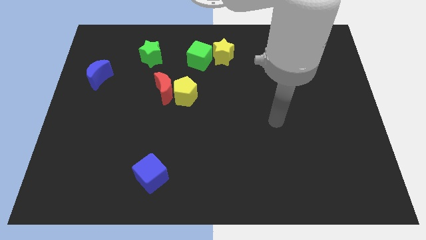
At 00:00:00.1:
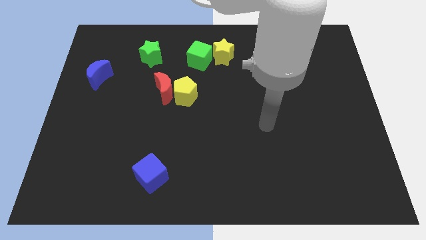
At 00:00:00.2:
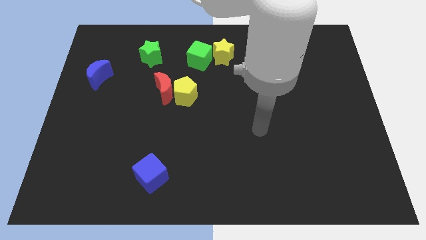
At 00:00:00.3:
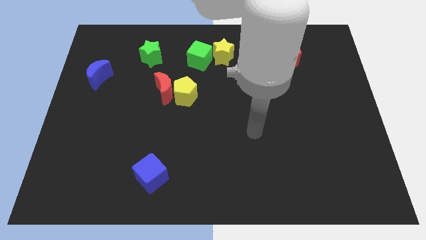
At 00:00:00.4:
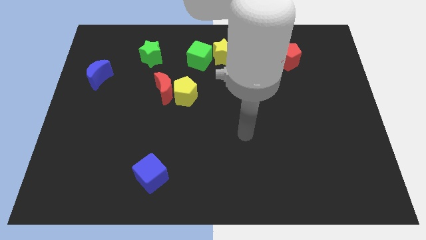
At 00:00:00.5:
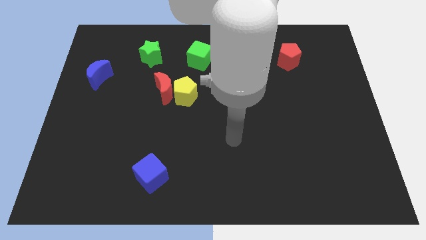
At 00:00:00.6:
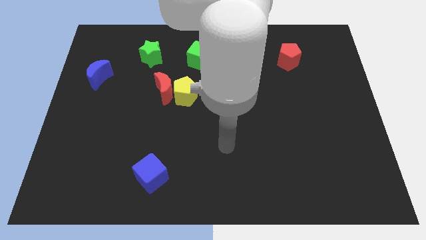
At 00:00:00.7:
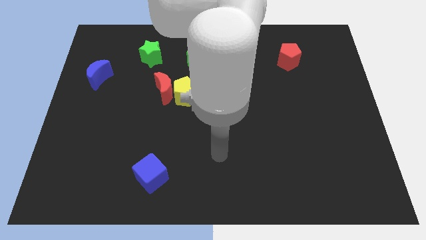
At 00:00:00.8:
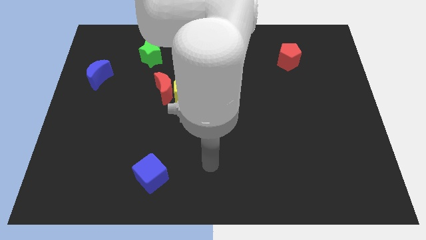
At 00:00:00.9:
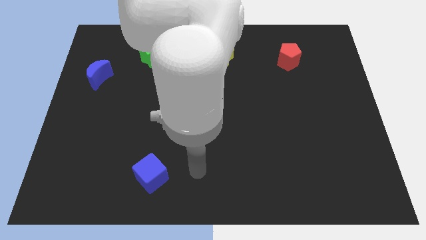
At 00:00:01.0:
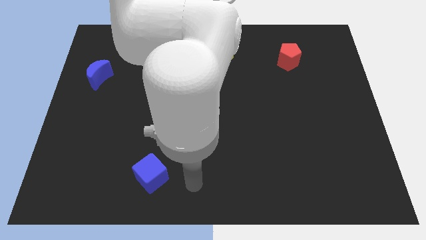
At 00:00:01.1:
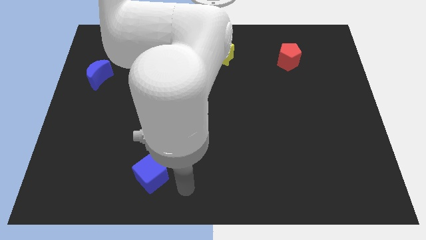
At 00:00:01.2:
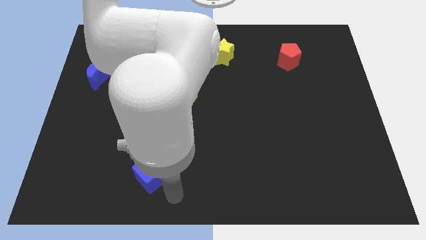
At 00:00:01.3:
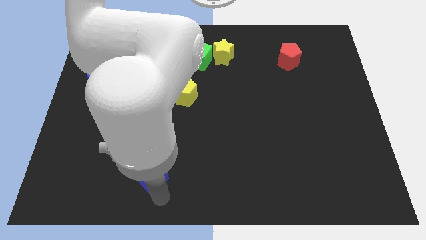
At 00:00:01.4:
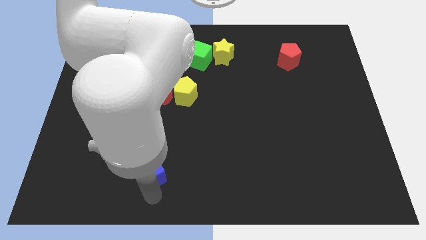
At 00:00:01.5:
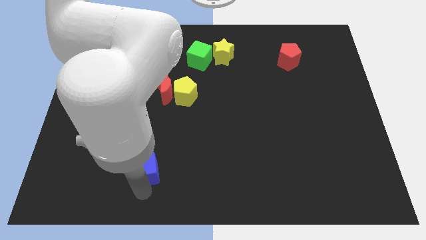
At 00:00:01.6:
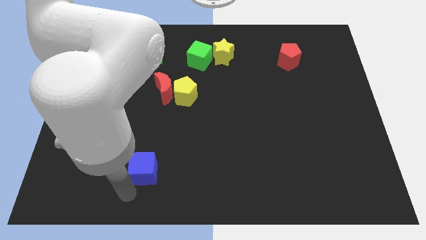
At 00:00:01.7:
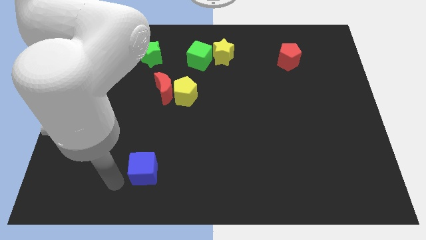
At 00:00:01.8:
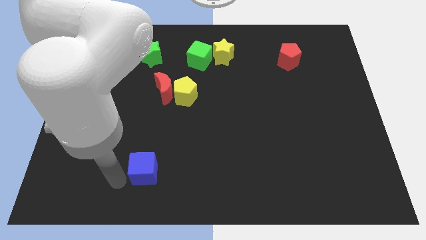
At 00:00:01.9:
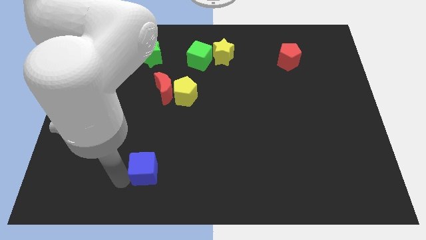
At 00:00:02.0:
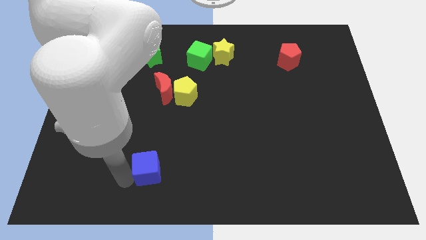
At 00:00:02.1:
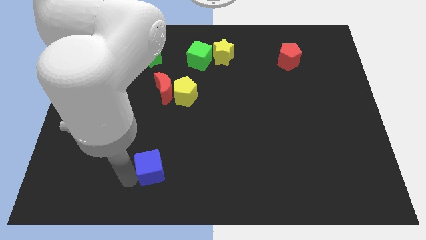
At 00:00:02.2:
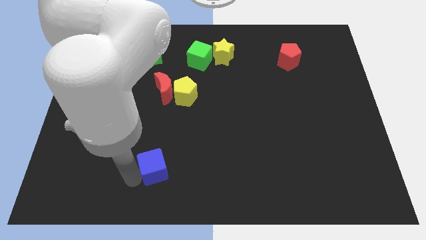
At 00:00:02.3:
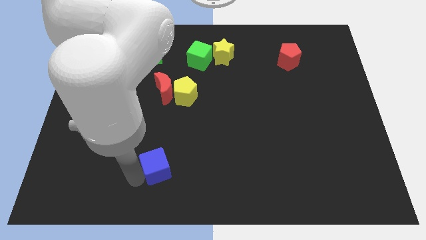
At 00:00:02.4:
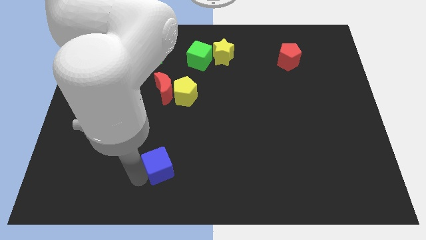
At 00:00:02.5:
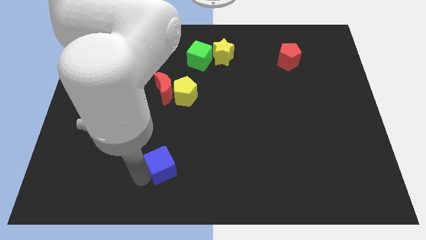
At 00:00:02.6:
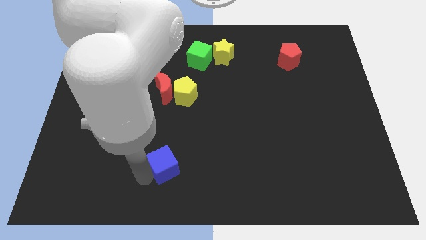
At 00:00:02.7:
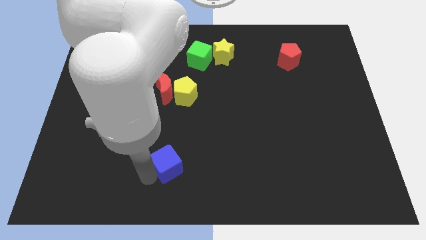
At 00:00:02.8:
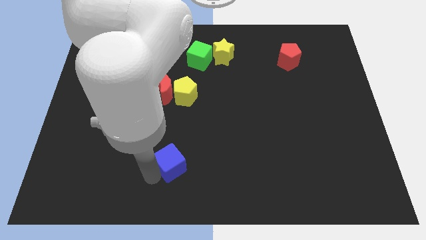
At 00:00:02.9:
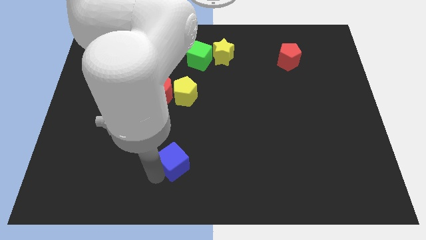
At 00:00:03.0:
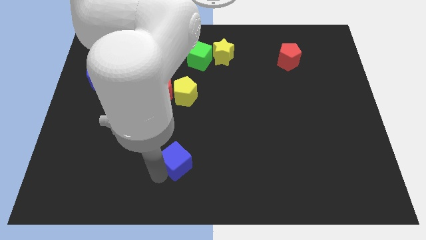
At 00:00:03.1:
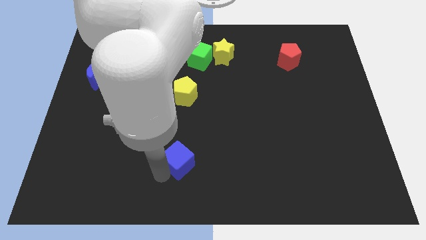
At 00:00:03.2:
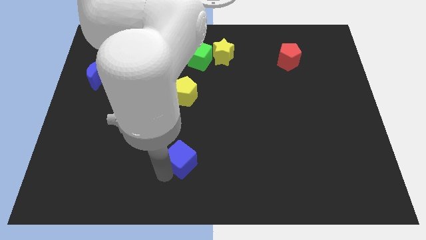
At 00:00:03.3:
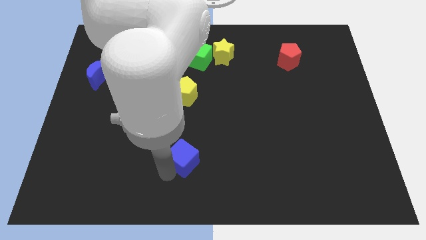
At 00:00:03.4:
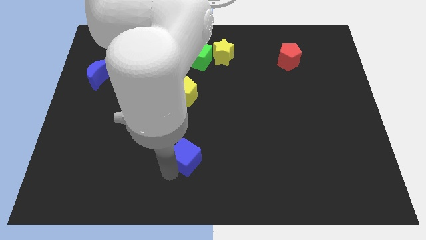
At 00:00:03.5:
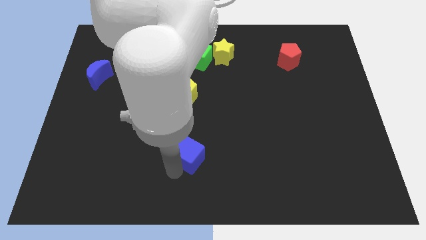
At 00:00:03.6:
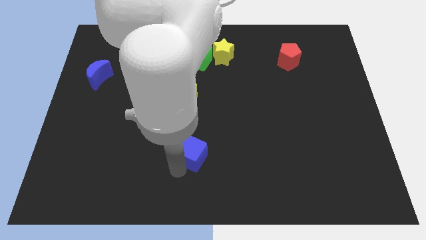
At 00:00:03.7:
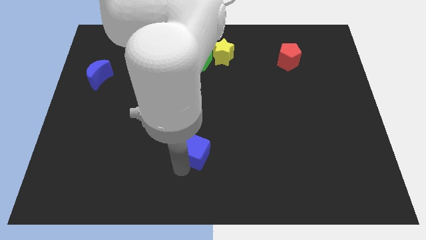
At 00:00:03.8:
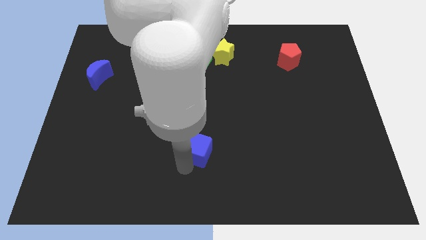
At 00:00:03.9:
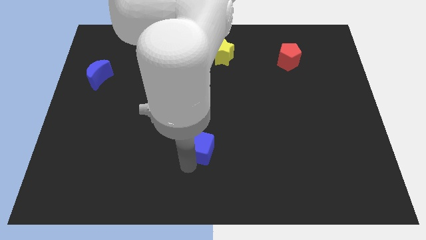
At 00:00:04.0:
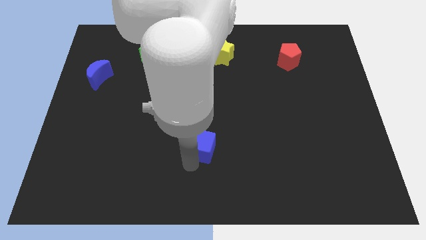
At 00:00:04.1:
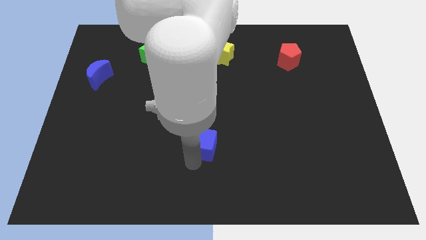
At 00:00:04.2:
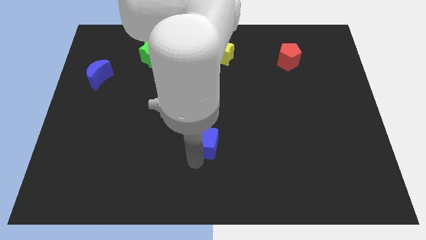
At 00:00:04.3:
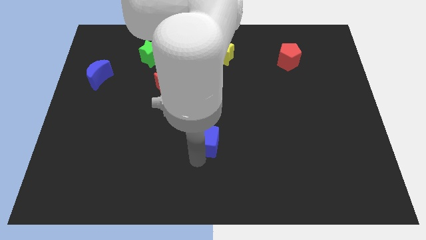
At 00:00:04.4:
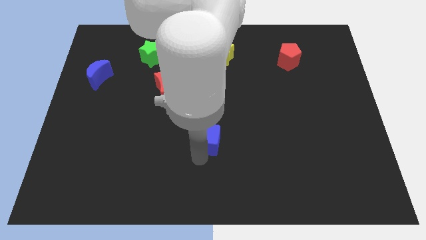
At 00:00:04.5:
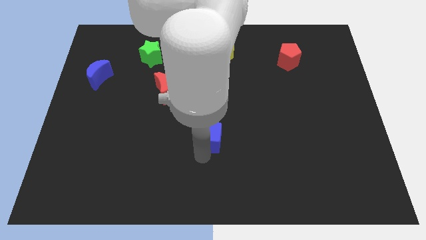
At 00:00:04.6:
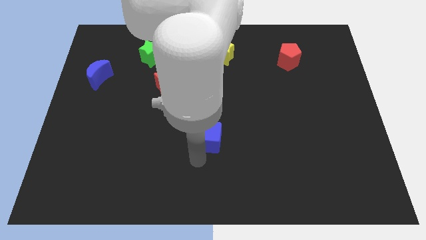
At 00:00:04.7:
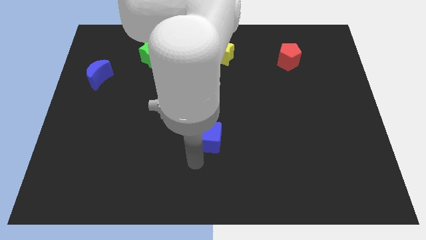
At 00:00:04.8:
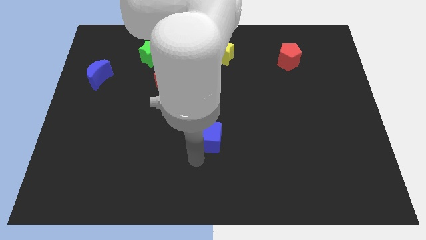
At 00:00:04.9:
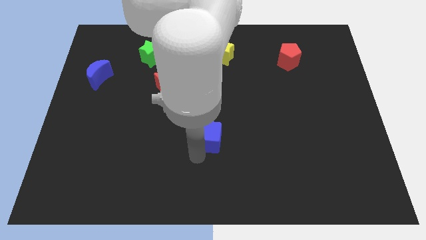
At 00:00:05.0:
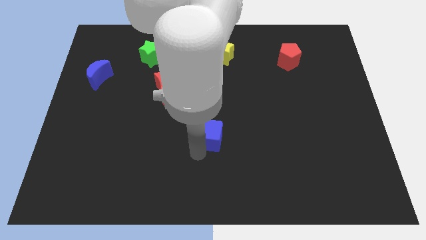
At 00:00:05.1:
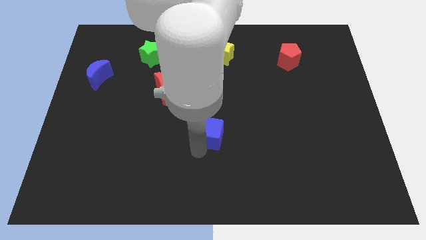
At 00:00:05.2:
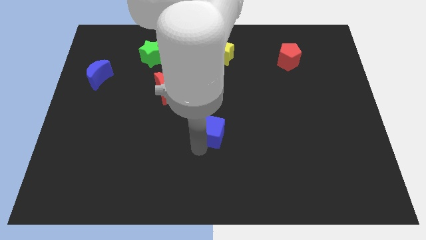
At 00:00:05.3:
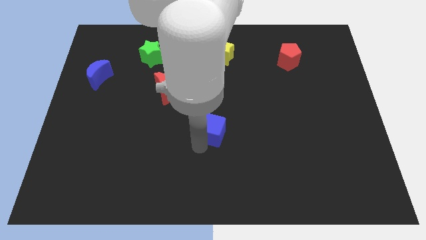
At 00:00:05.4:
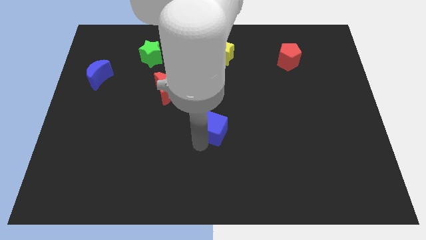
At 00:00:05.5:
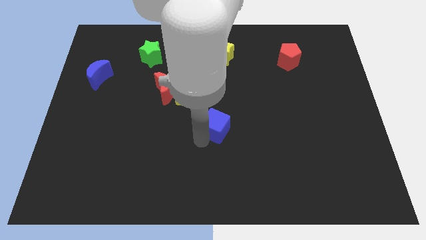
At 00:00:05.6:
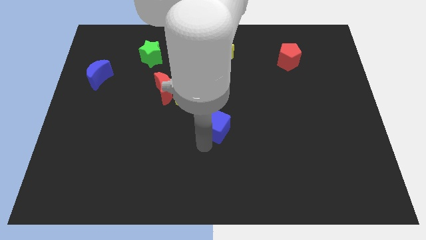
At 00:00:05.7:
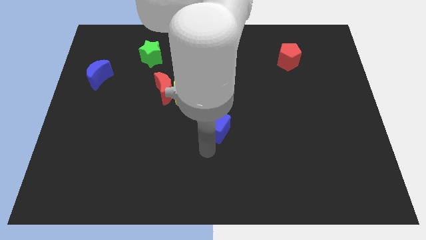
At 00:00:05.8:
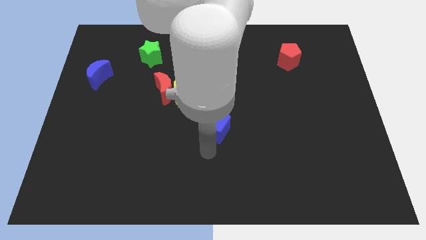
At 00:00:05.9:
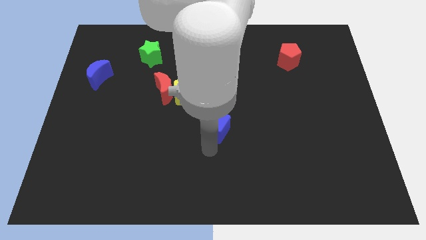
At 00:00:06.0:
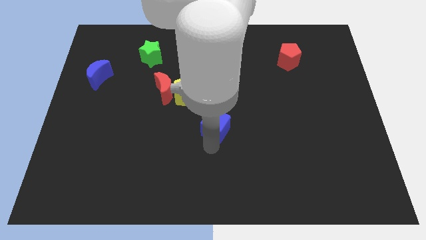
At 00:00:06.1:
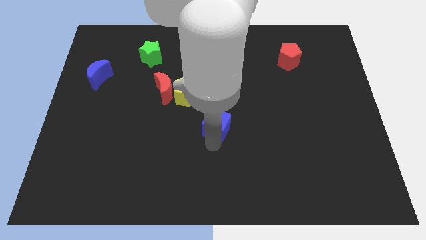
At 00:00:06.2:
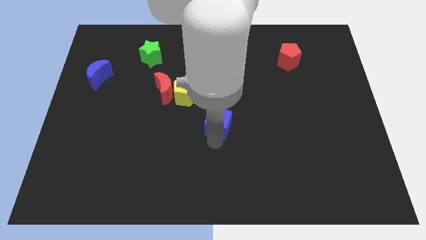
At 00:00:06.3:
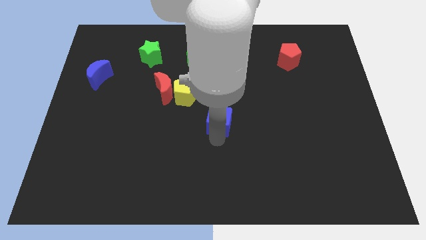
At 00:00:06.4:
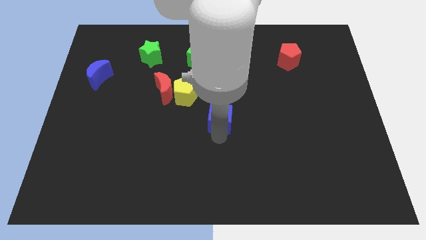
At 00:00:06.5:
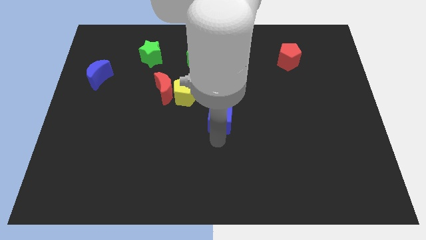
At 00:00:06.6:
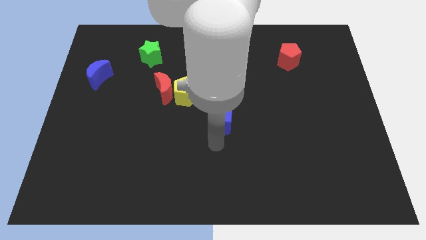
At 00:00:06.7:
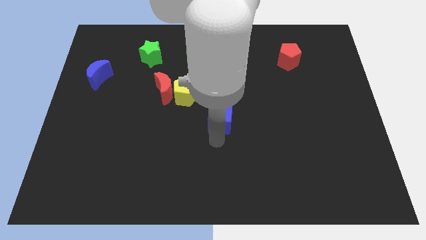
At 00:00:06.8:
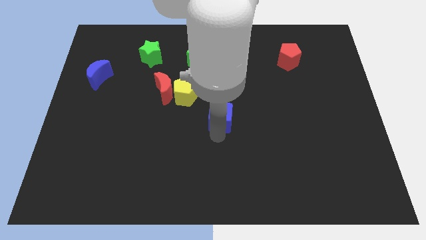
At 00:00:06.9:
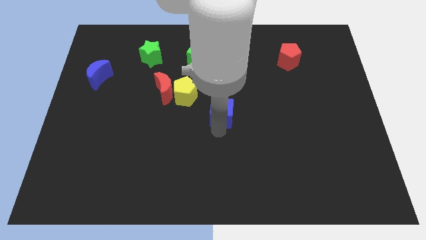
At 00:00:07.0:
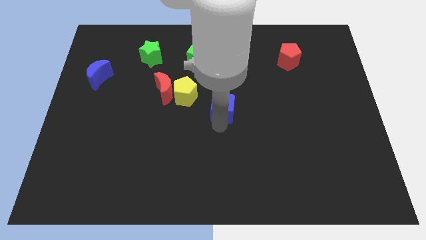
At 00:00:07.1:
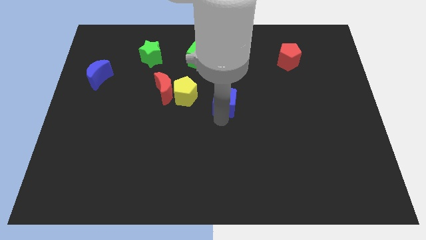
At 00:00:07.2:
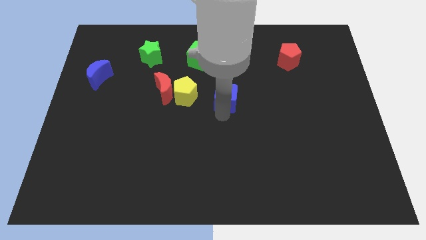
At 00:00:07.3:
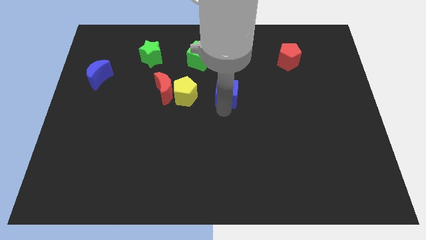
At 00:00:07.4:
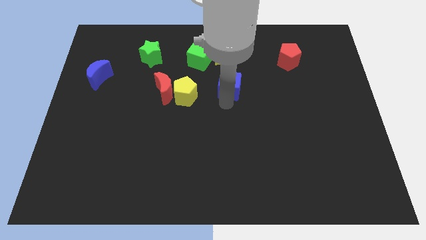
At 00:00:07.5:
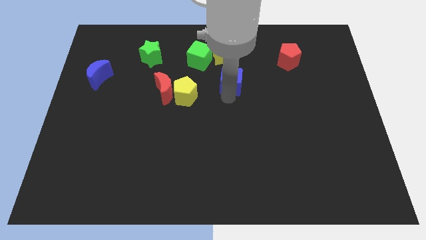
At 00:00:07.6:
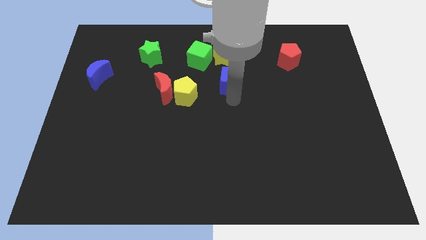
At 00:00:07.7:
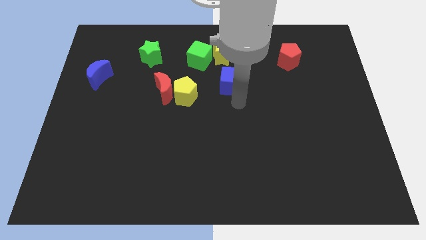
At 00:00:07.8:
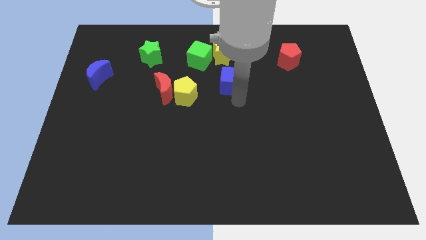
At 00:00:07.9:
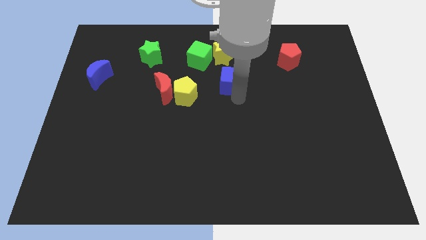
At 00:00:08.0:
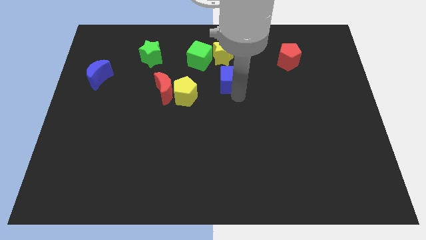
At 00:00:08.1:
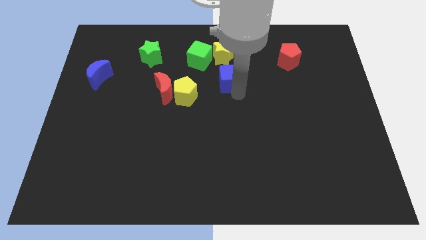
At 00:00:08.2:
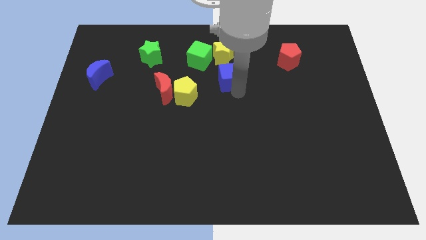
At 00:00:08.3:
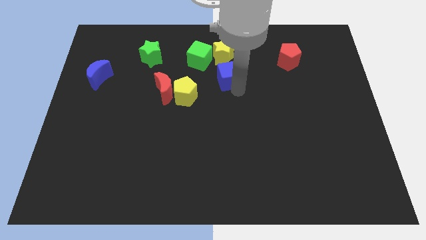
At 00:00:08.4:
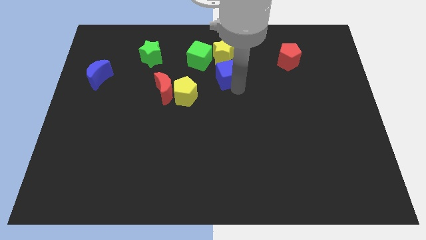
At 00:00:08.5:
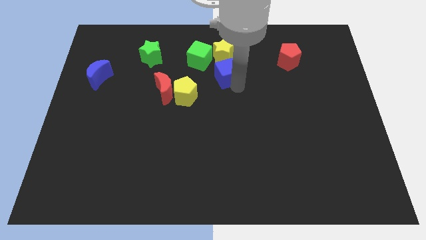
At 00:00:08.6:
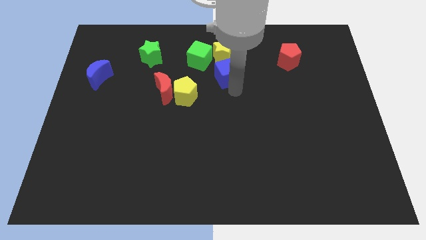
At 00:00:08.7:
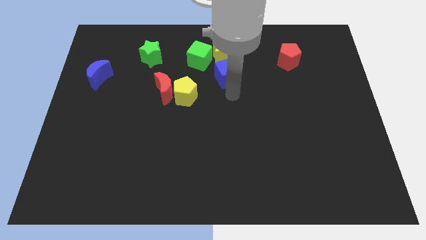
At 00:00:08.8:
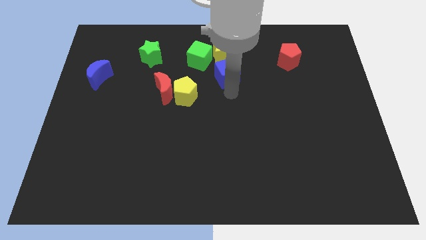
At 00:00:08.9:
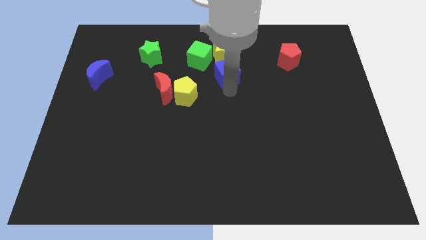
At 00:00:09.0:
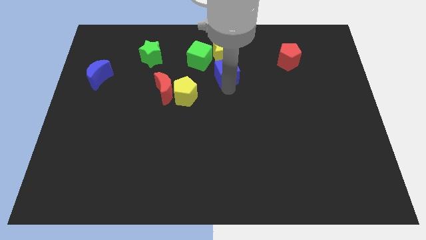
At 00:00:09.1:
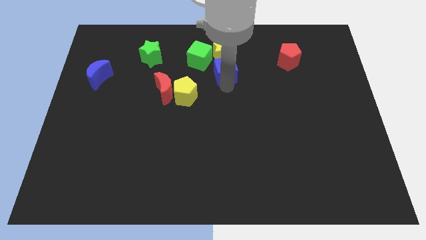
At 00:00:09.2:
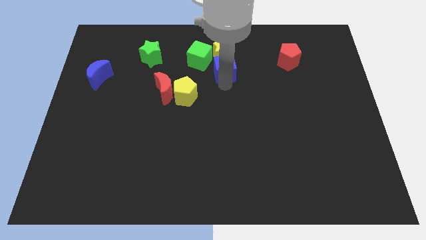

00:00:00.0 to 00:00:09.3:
slide the blue cube towards the yellow star
